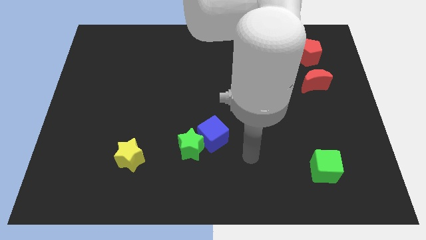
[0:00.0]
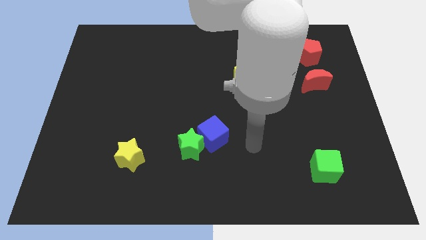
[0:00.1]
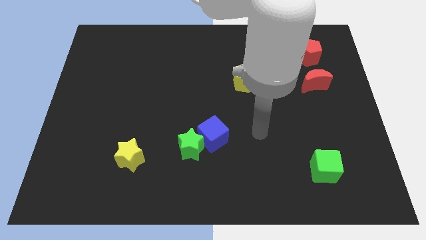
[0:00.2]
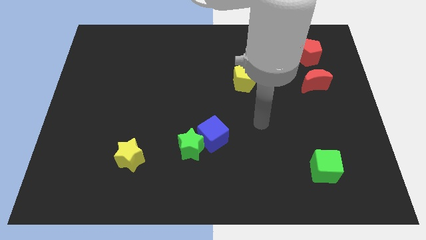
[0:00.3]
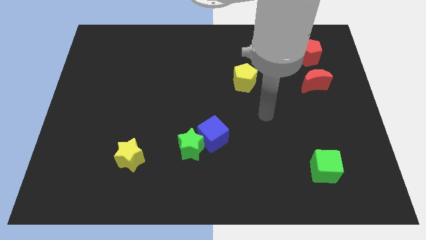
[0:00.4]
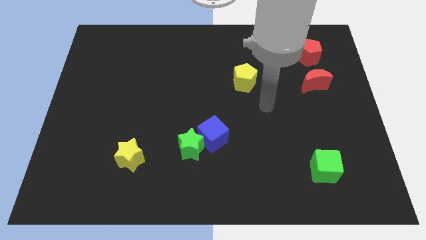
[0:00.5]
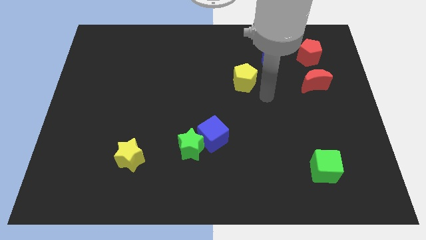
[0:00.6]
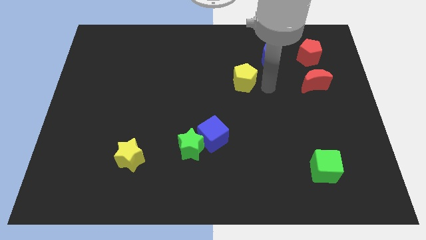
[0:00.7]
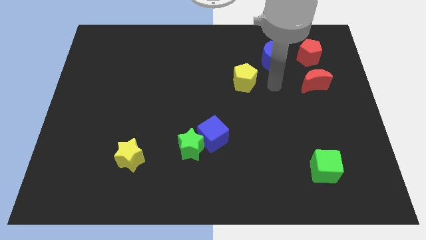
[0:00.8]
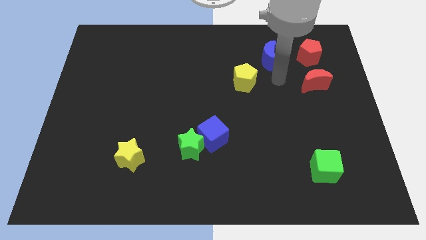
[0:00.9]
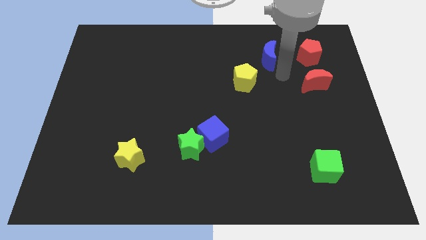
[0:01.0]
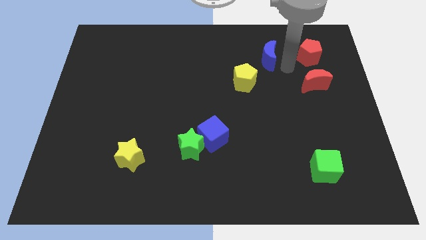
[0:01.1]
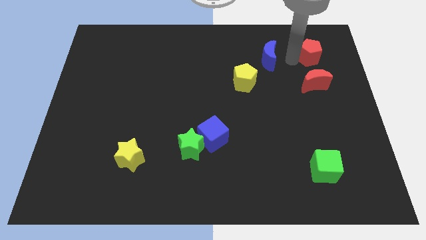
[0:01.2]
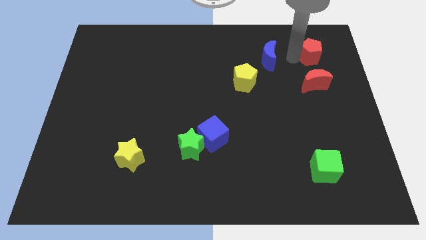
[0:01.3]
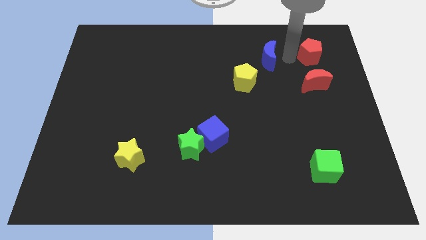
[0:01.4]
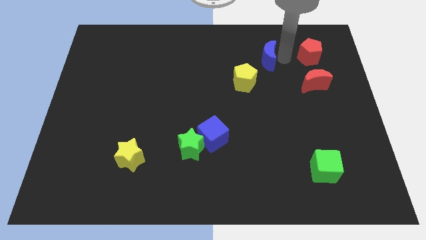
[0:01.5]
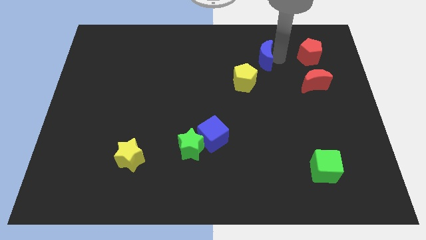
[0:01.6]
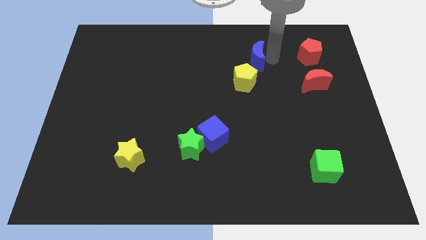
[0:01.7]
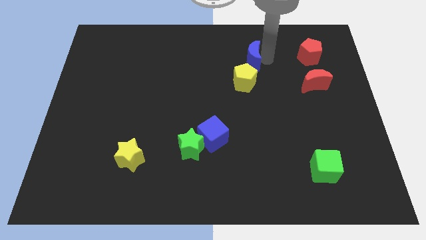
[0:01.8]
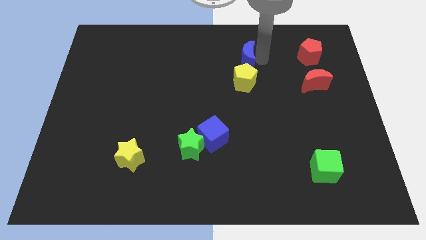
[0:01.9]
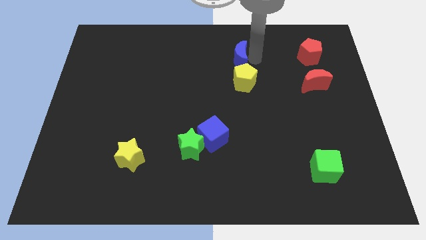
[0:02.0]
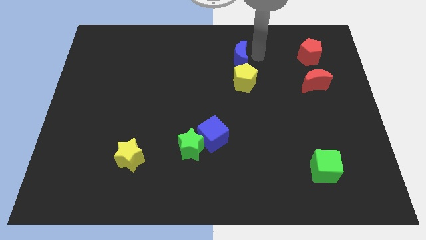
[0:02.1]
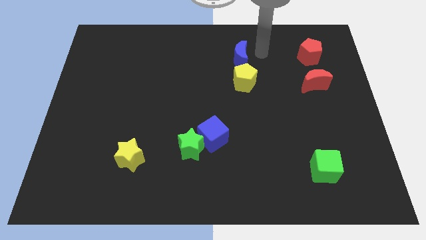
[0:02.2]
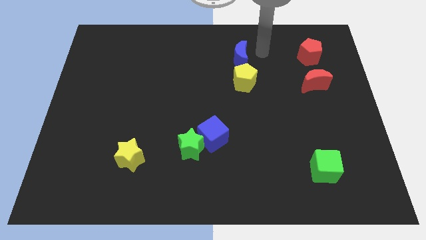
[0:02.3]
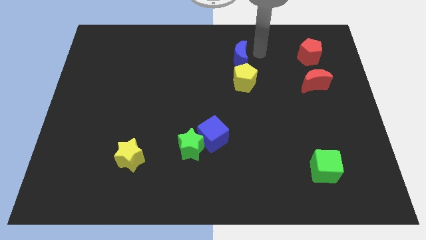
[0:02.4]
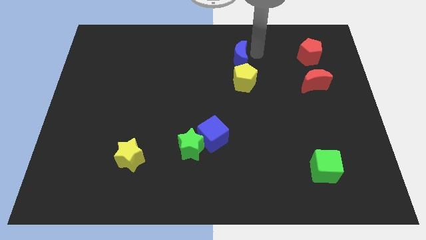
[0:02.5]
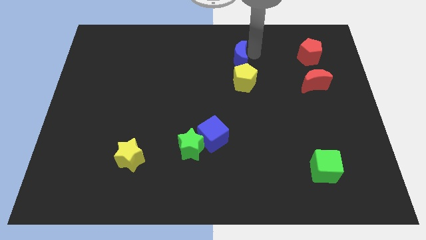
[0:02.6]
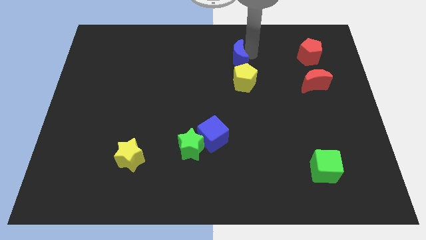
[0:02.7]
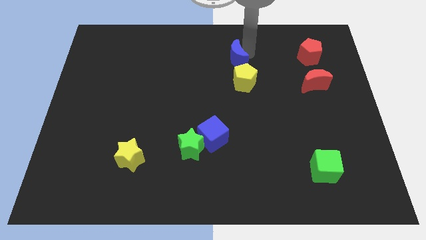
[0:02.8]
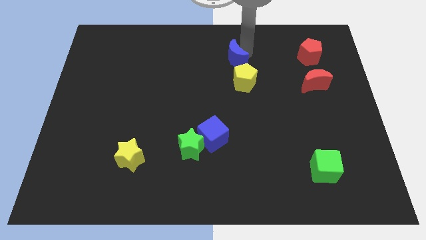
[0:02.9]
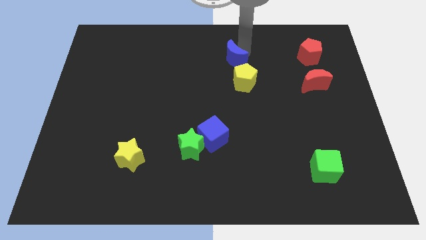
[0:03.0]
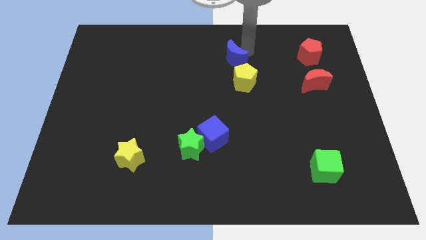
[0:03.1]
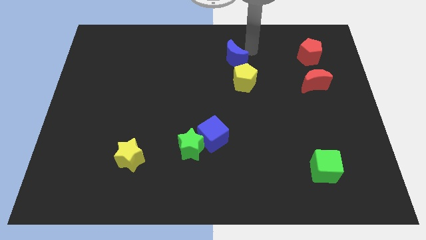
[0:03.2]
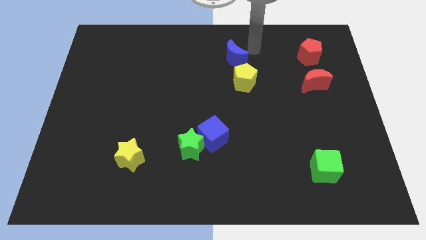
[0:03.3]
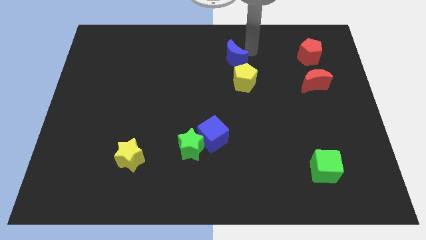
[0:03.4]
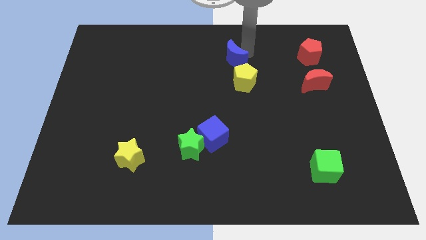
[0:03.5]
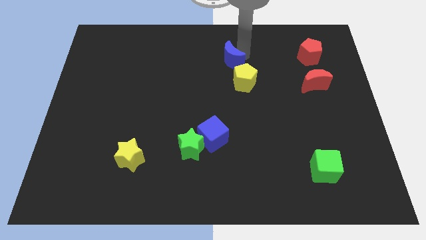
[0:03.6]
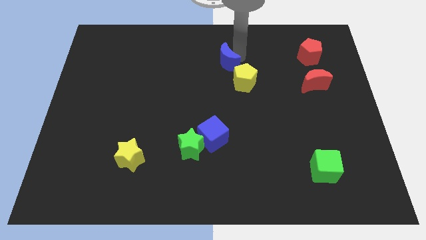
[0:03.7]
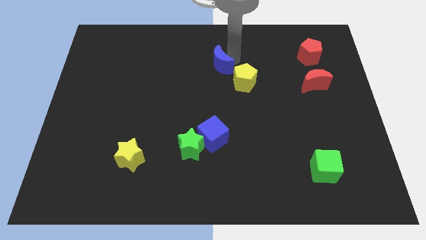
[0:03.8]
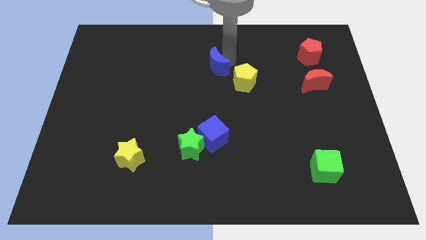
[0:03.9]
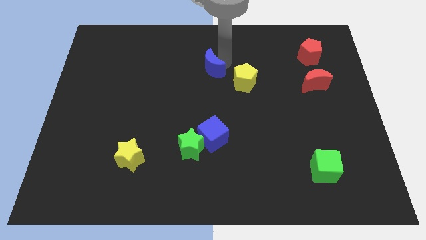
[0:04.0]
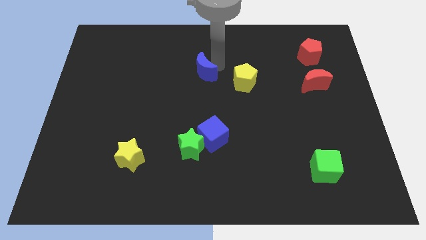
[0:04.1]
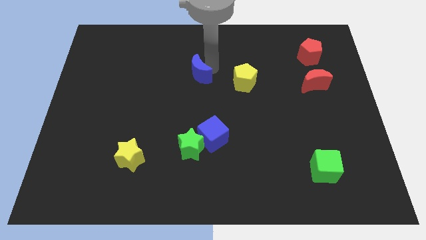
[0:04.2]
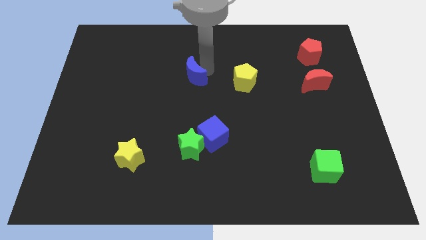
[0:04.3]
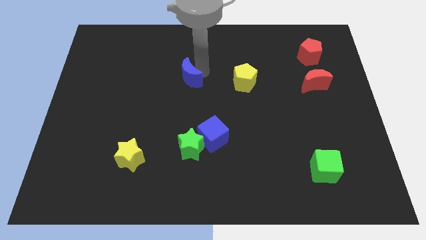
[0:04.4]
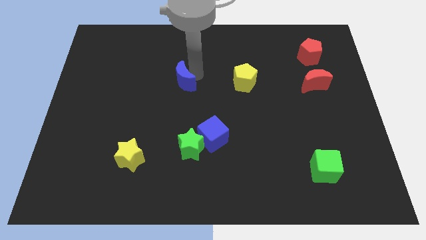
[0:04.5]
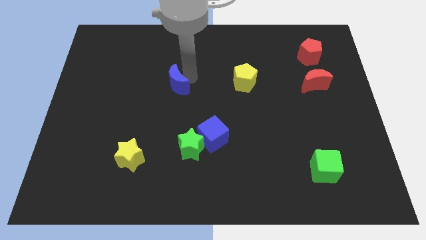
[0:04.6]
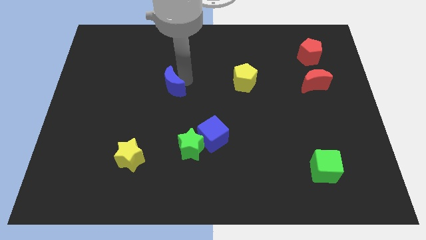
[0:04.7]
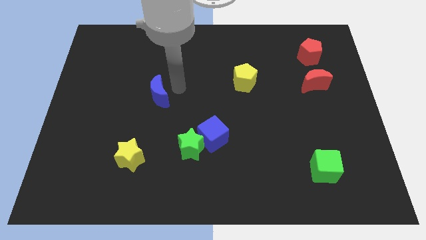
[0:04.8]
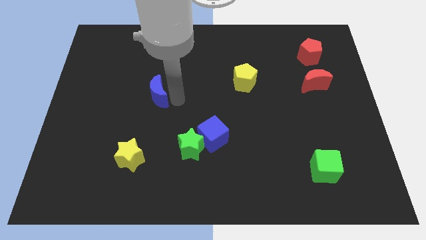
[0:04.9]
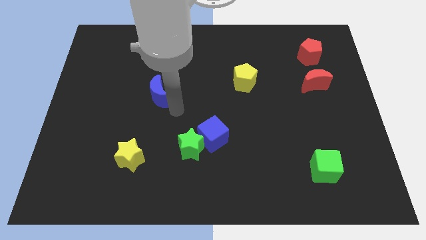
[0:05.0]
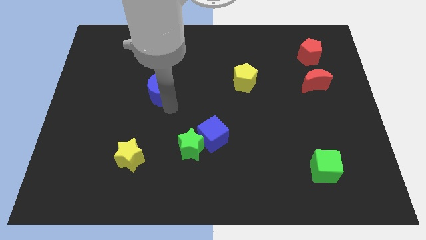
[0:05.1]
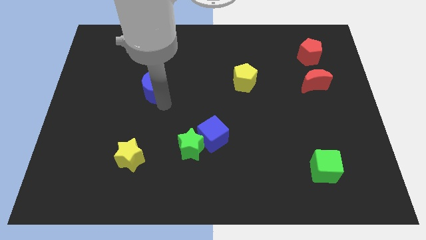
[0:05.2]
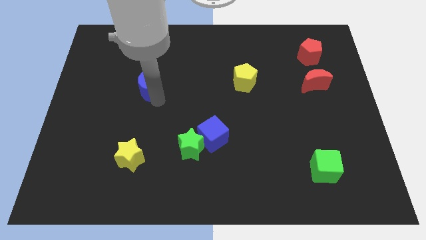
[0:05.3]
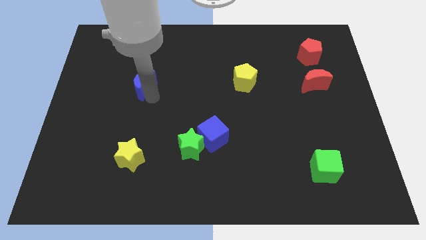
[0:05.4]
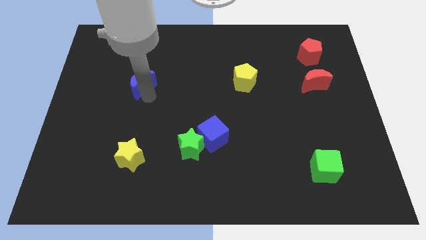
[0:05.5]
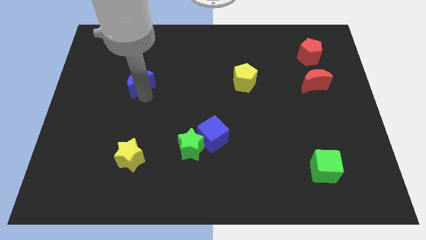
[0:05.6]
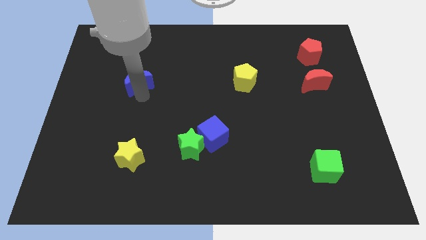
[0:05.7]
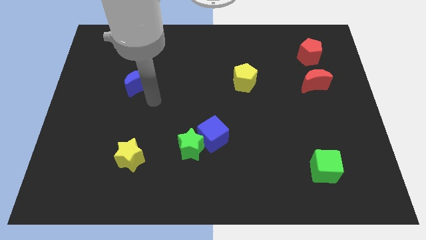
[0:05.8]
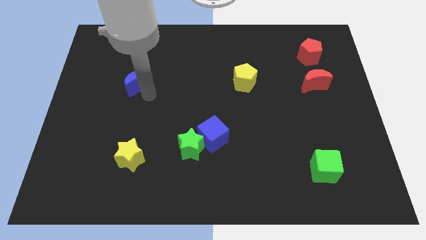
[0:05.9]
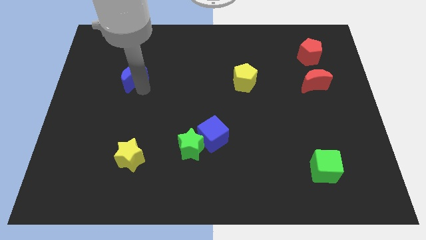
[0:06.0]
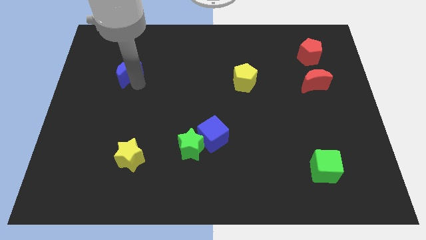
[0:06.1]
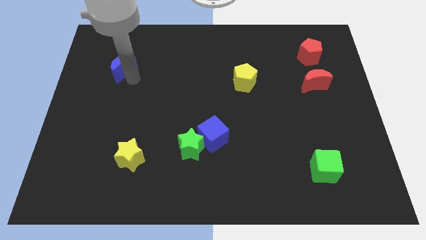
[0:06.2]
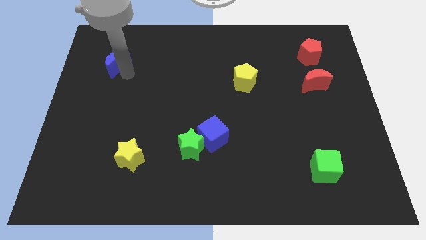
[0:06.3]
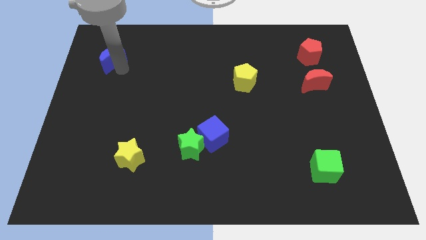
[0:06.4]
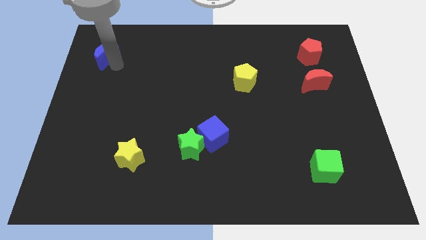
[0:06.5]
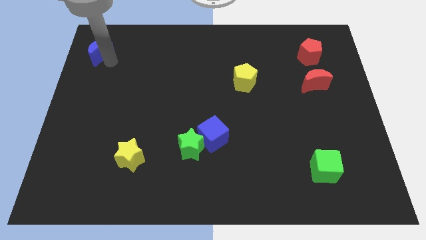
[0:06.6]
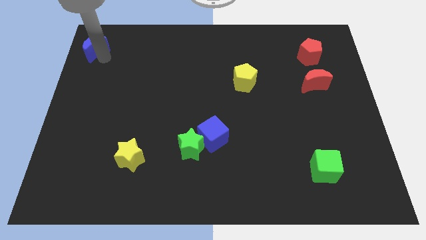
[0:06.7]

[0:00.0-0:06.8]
slide the blue moon to the top left of the board

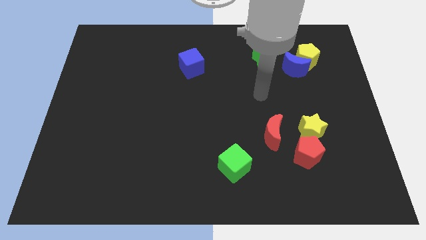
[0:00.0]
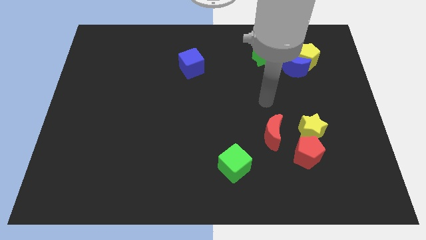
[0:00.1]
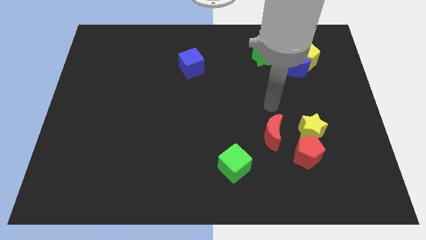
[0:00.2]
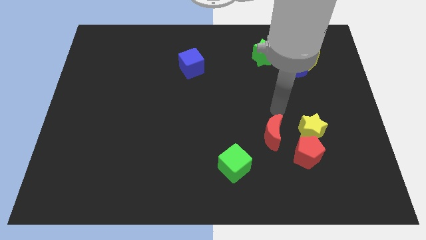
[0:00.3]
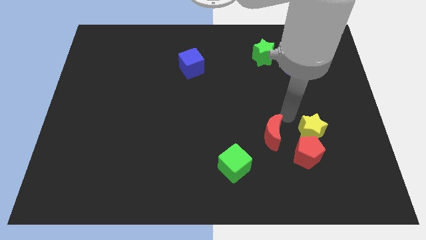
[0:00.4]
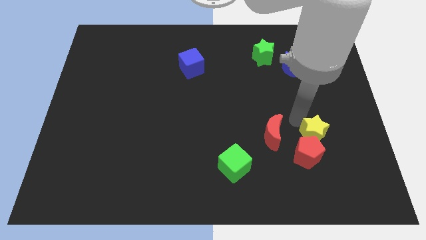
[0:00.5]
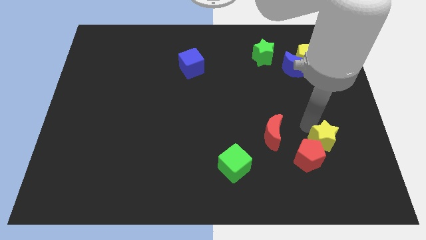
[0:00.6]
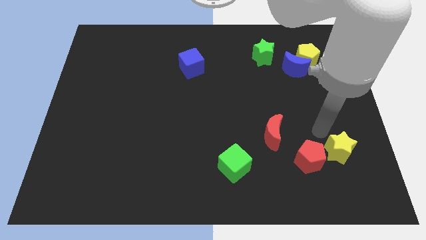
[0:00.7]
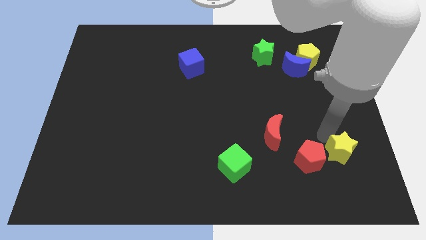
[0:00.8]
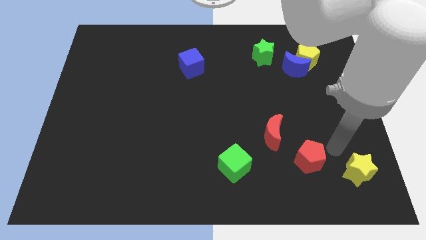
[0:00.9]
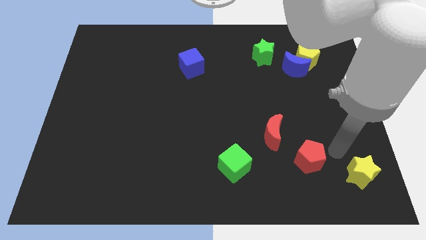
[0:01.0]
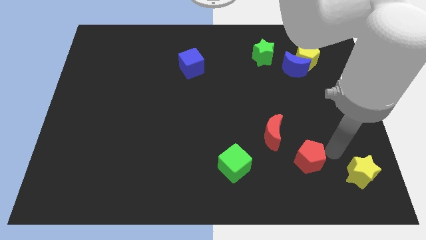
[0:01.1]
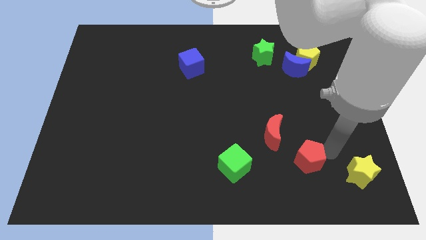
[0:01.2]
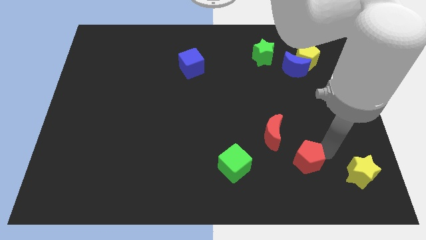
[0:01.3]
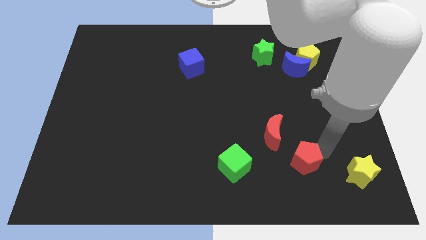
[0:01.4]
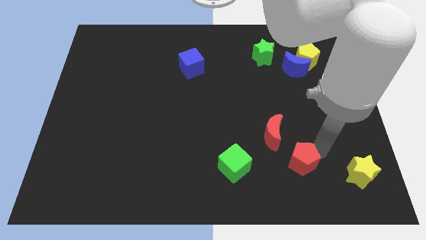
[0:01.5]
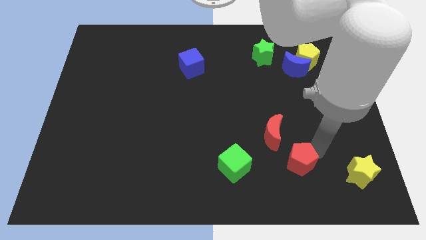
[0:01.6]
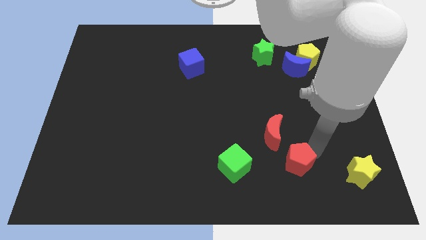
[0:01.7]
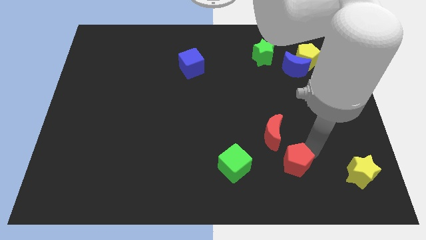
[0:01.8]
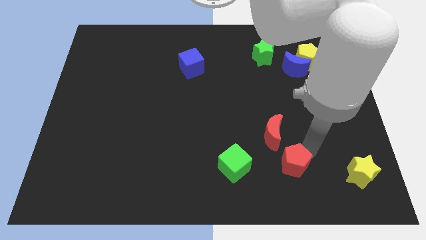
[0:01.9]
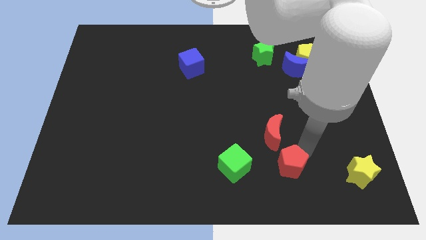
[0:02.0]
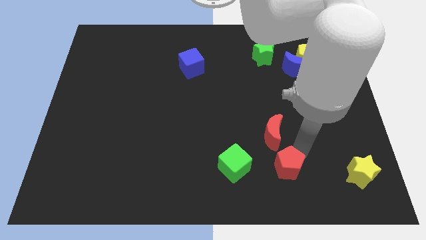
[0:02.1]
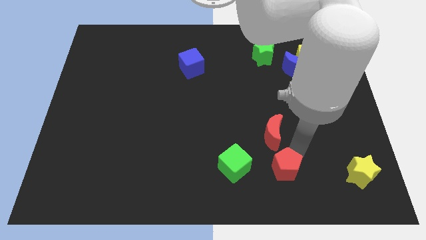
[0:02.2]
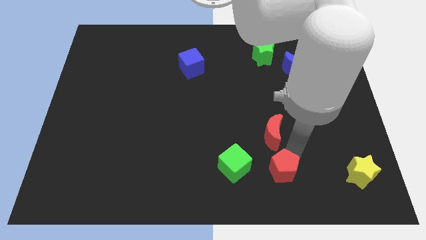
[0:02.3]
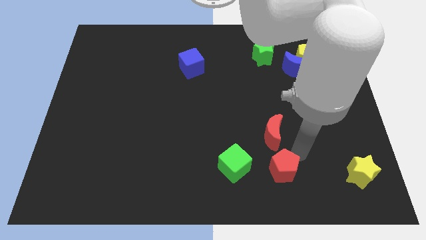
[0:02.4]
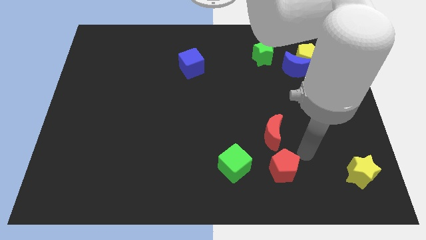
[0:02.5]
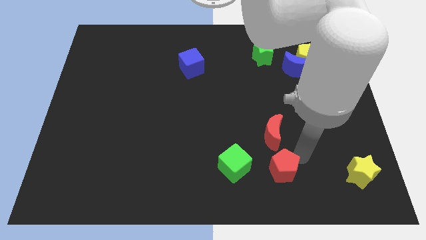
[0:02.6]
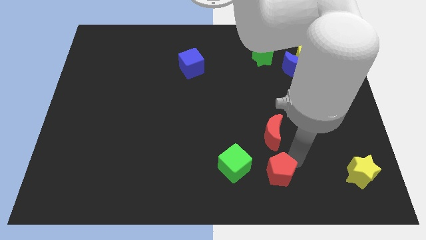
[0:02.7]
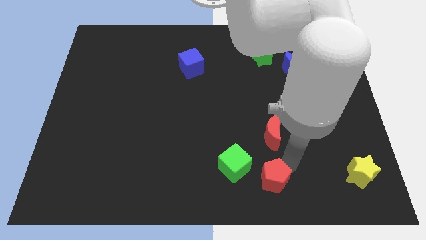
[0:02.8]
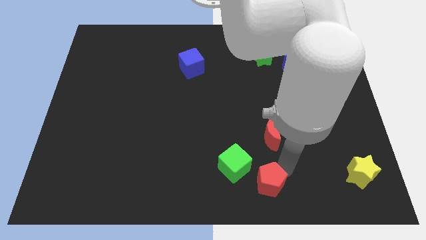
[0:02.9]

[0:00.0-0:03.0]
move the red pentagon to the bottom side
